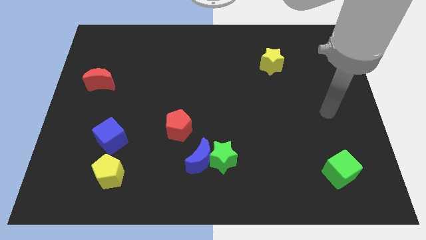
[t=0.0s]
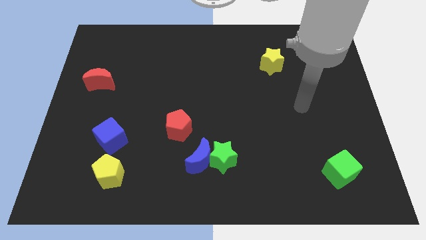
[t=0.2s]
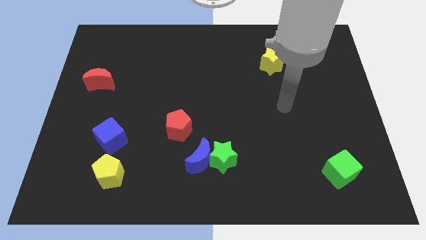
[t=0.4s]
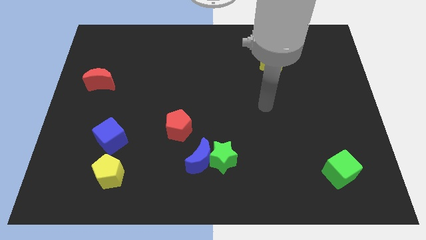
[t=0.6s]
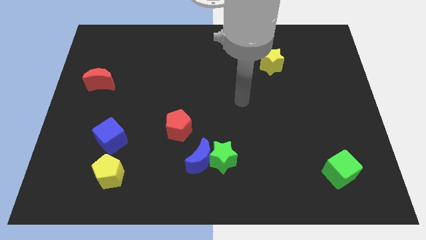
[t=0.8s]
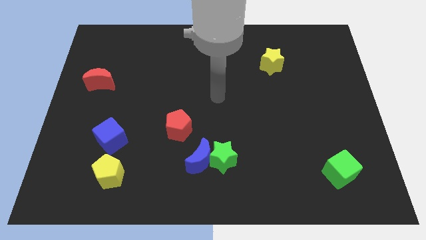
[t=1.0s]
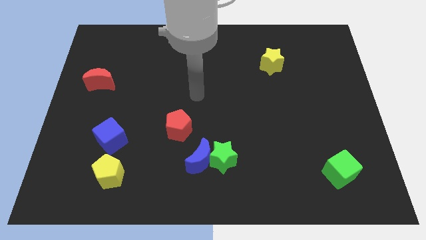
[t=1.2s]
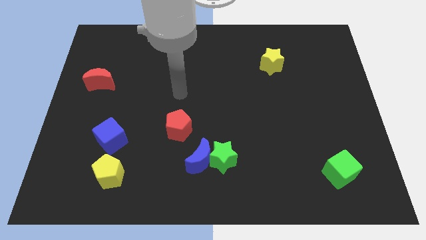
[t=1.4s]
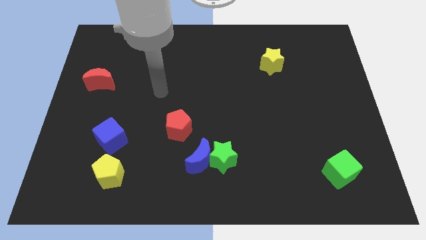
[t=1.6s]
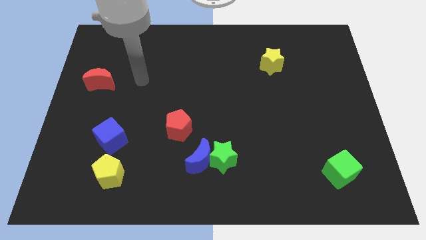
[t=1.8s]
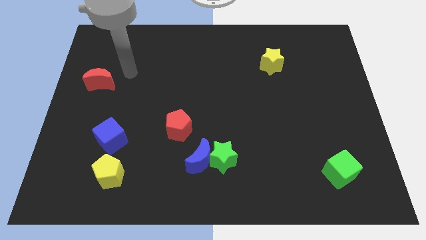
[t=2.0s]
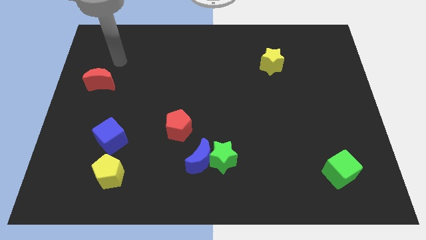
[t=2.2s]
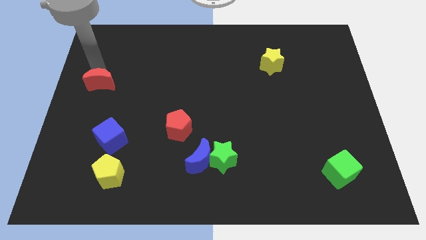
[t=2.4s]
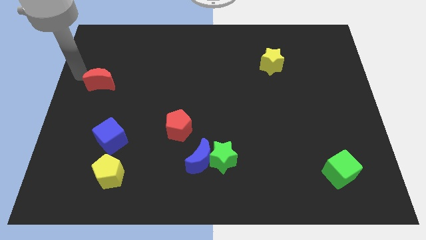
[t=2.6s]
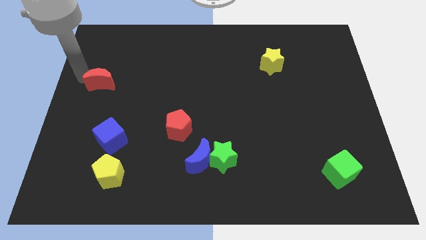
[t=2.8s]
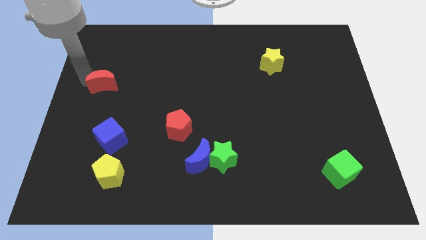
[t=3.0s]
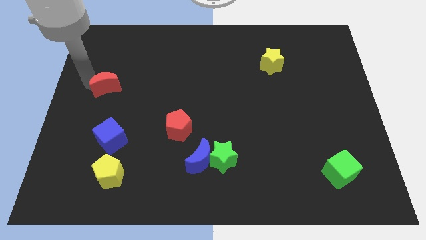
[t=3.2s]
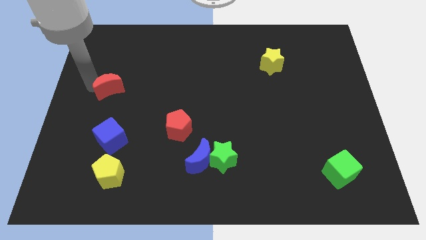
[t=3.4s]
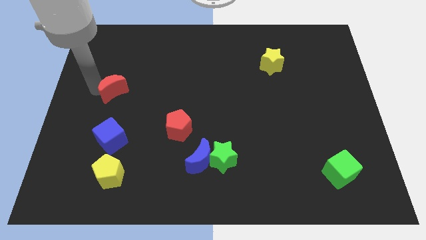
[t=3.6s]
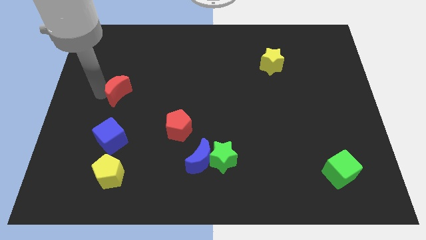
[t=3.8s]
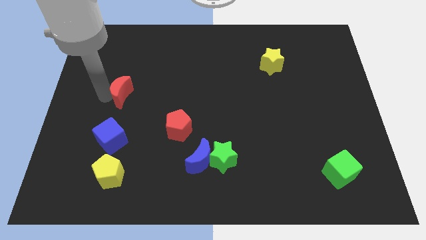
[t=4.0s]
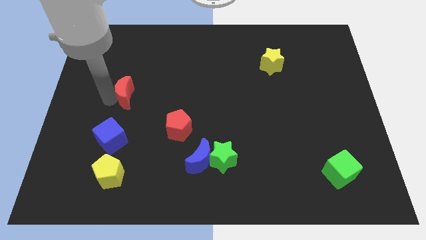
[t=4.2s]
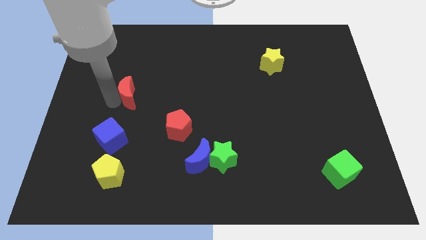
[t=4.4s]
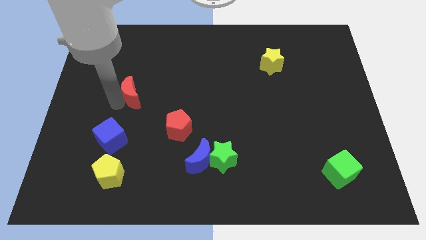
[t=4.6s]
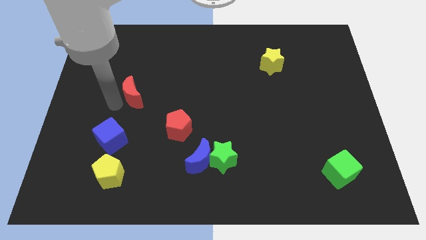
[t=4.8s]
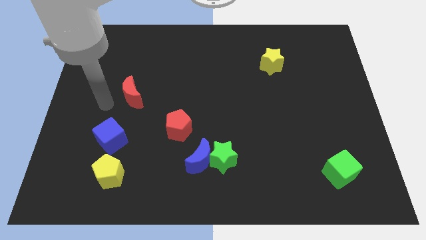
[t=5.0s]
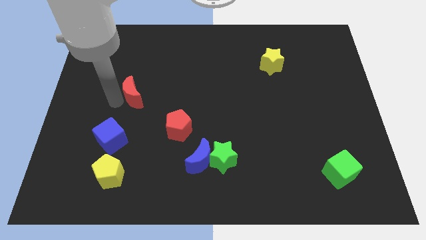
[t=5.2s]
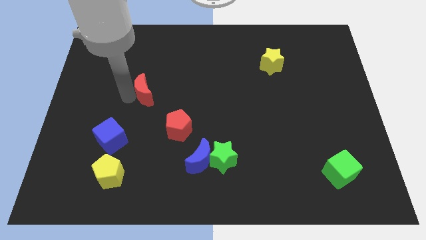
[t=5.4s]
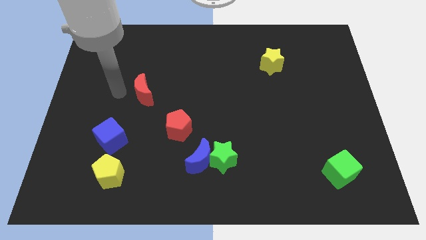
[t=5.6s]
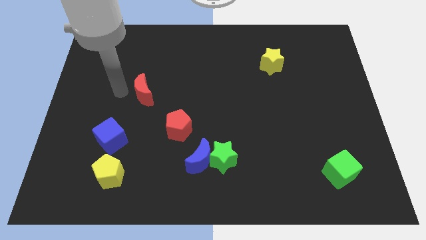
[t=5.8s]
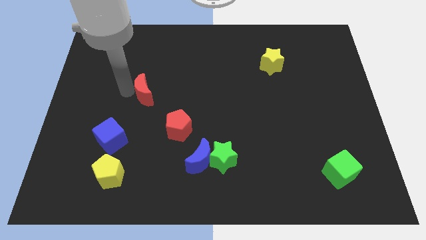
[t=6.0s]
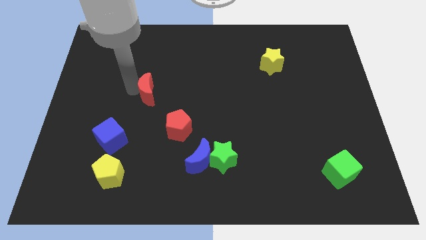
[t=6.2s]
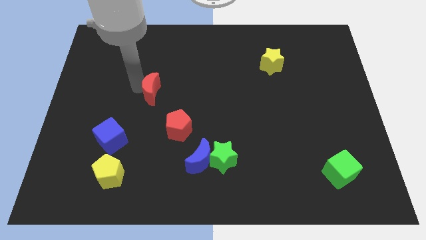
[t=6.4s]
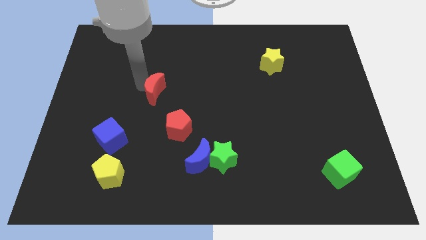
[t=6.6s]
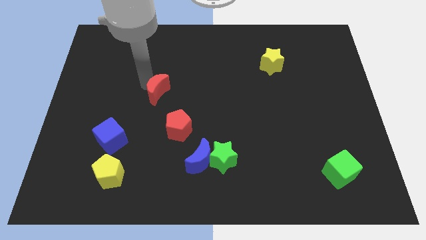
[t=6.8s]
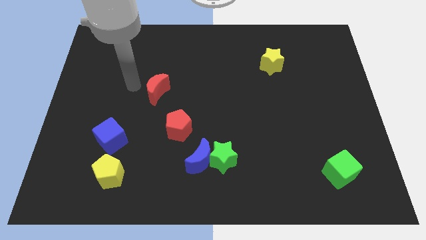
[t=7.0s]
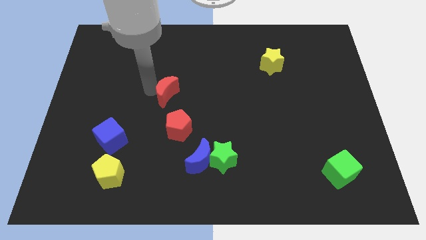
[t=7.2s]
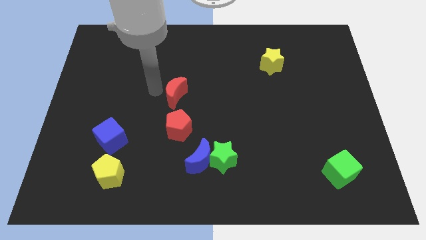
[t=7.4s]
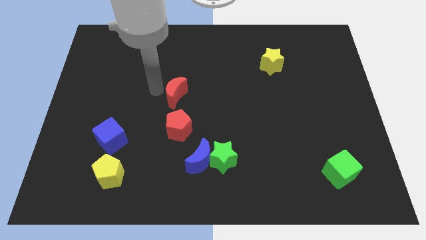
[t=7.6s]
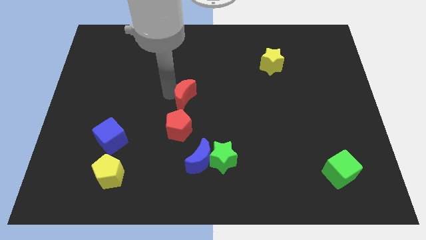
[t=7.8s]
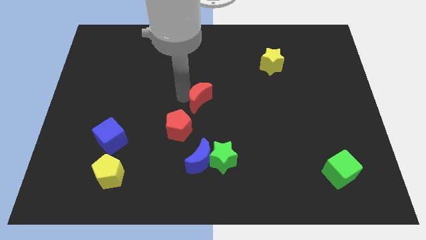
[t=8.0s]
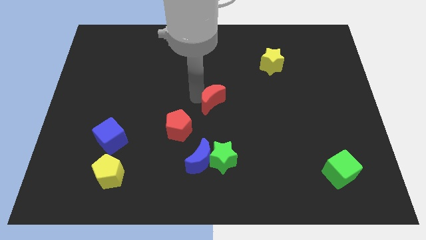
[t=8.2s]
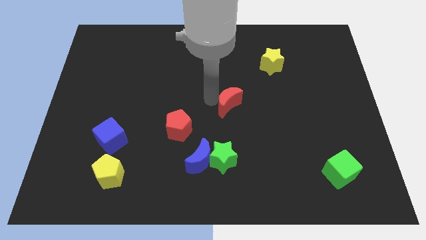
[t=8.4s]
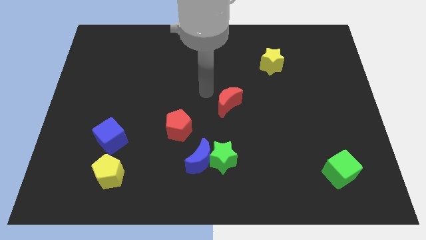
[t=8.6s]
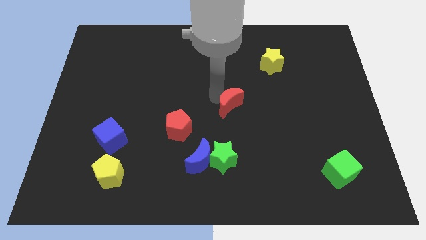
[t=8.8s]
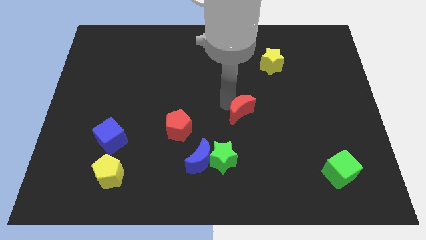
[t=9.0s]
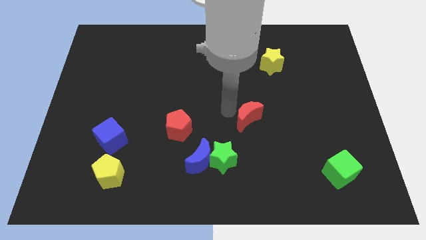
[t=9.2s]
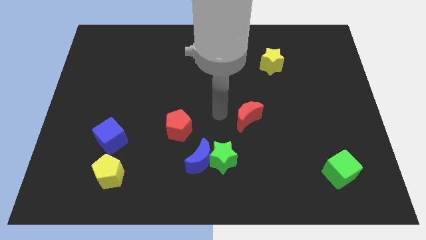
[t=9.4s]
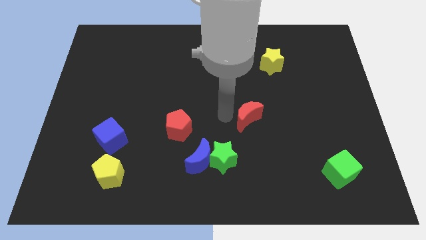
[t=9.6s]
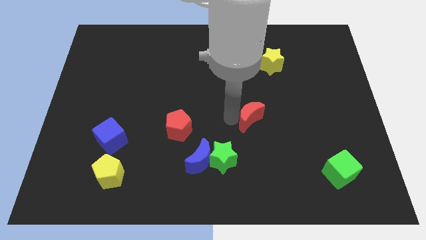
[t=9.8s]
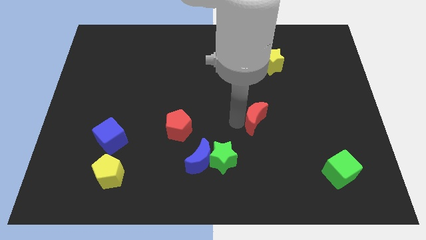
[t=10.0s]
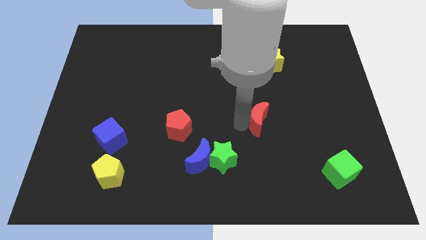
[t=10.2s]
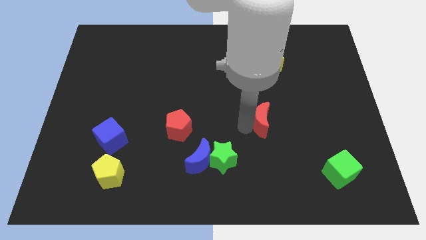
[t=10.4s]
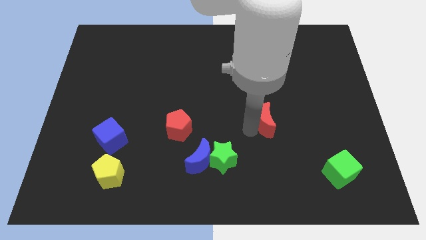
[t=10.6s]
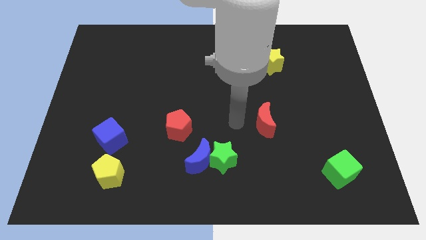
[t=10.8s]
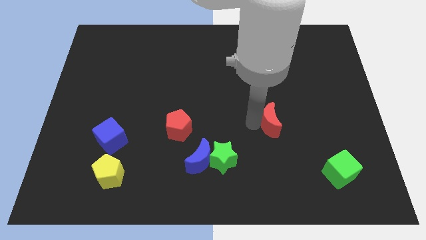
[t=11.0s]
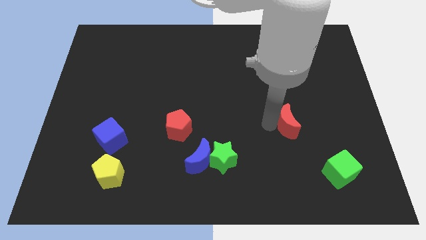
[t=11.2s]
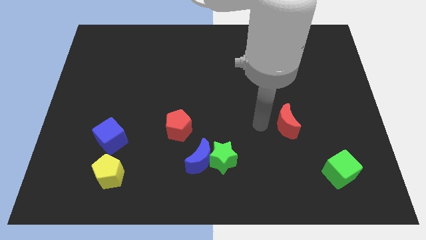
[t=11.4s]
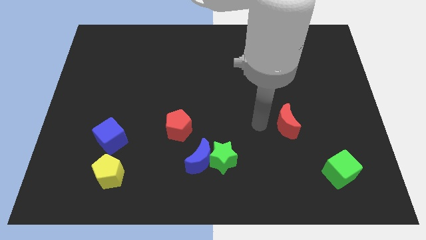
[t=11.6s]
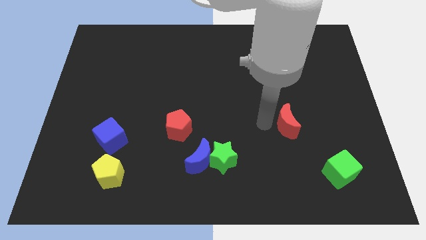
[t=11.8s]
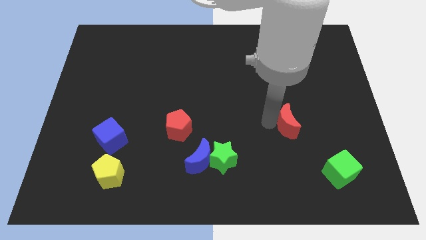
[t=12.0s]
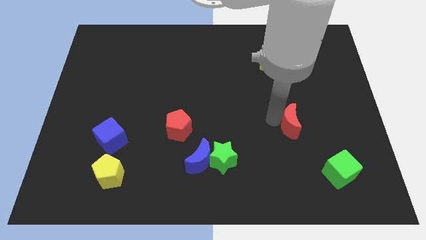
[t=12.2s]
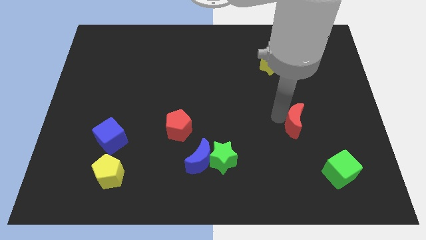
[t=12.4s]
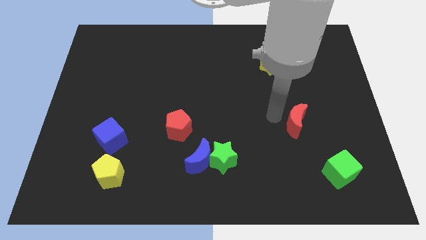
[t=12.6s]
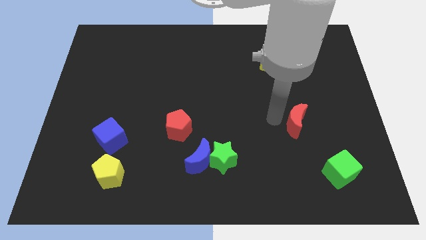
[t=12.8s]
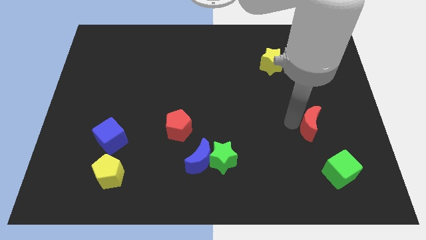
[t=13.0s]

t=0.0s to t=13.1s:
slide the red moon to the top side of the green cube

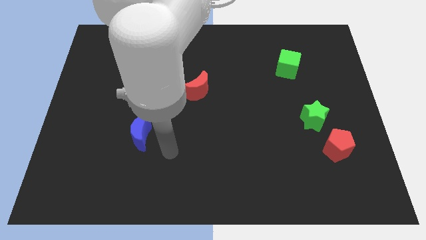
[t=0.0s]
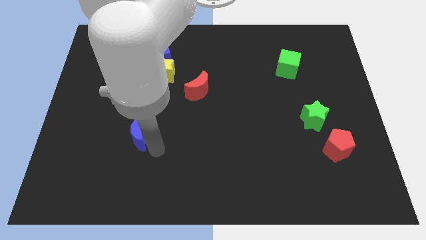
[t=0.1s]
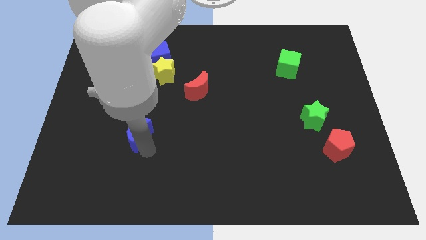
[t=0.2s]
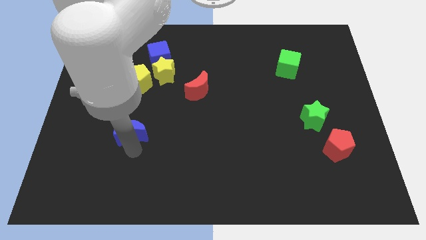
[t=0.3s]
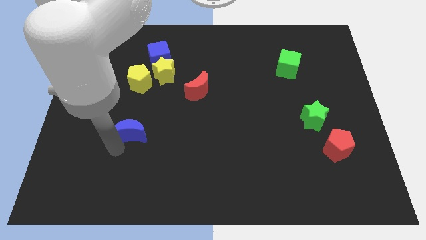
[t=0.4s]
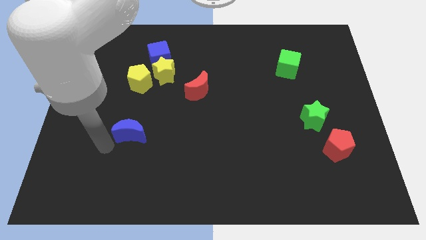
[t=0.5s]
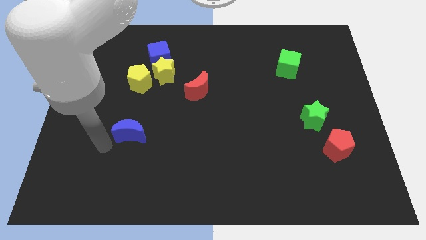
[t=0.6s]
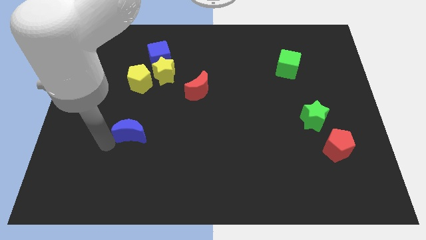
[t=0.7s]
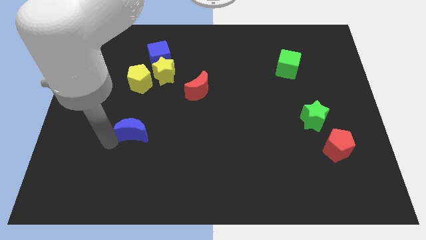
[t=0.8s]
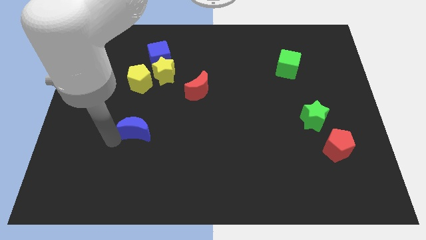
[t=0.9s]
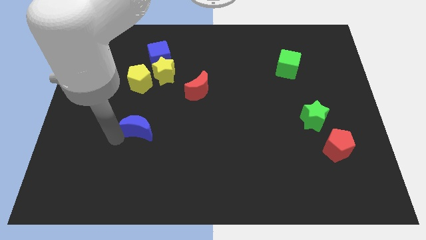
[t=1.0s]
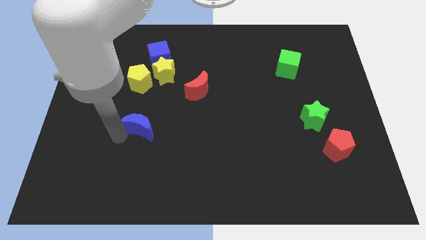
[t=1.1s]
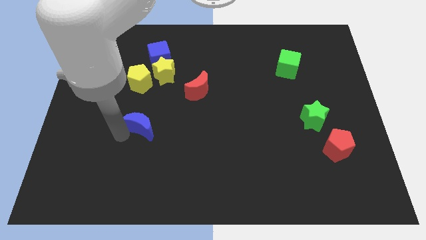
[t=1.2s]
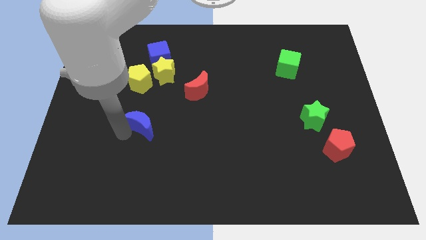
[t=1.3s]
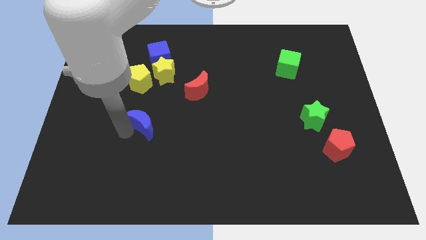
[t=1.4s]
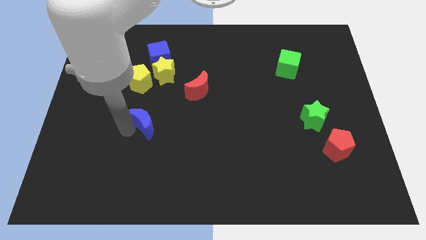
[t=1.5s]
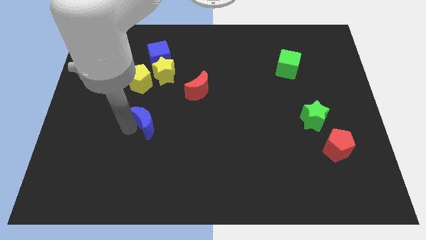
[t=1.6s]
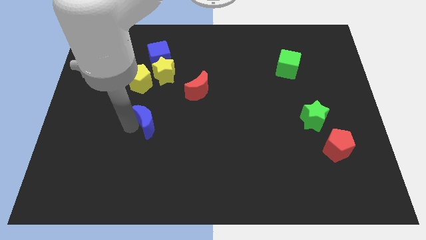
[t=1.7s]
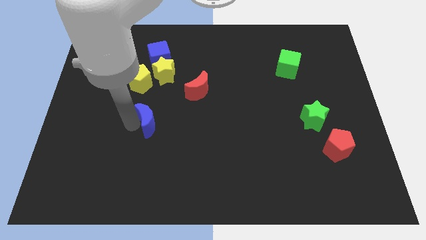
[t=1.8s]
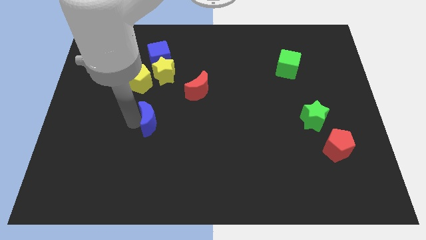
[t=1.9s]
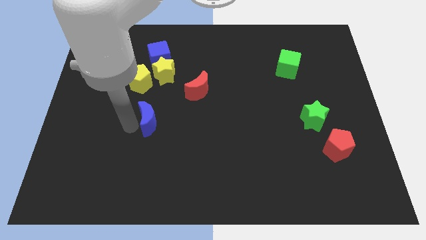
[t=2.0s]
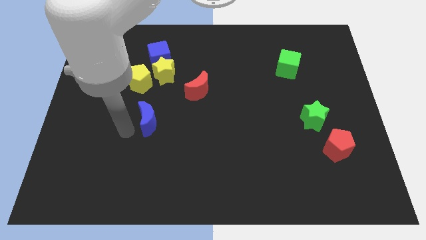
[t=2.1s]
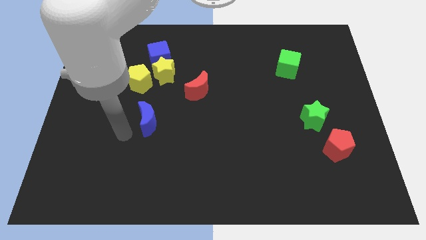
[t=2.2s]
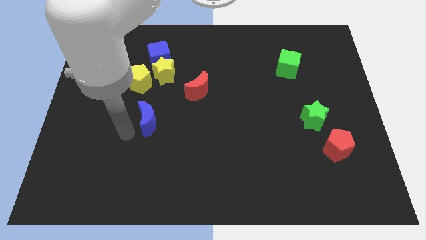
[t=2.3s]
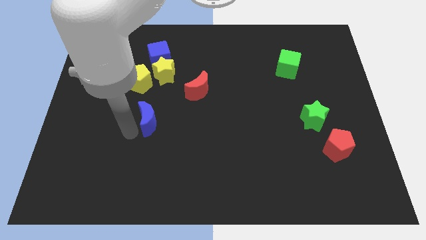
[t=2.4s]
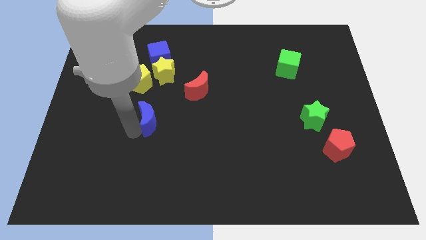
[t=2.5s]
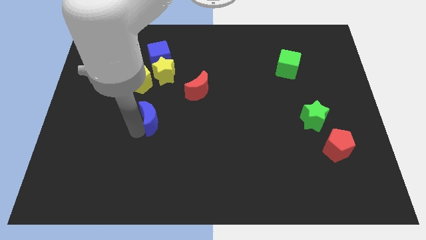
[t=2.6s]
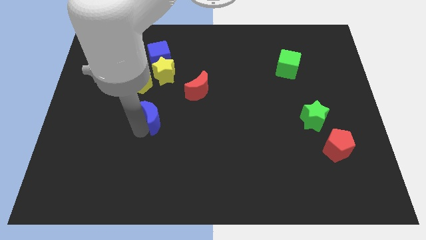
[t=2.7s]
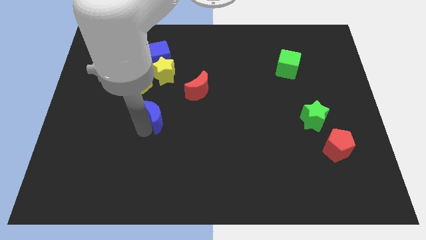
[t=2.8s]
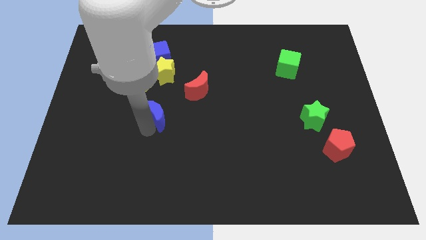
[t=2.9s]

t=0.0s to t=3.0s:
put the blue moon to the bottom left of the red moon
